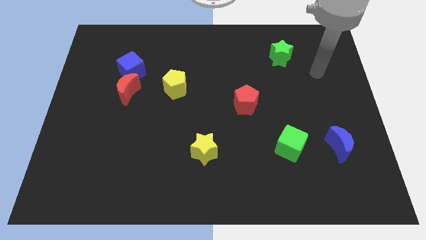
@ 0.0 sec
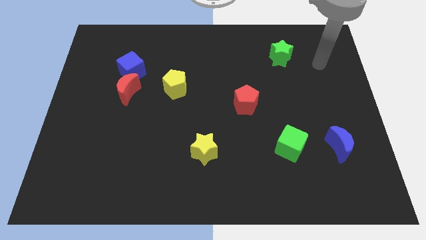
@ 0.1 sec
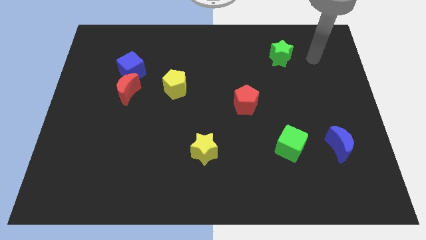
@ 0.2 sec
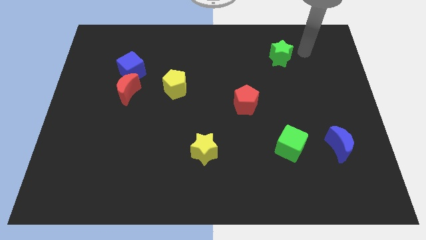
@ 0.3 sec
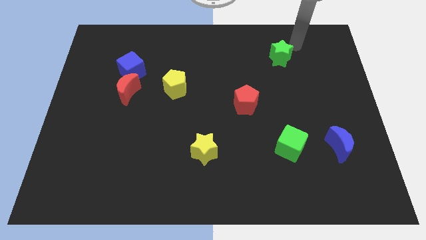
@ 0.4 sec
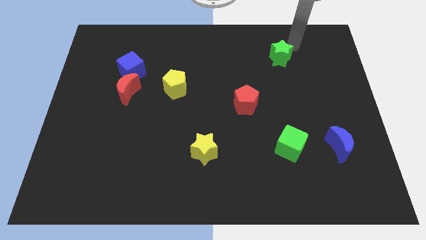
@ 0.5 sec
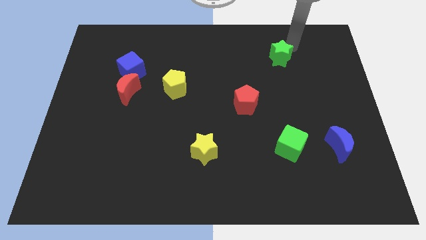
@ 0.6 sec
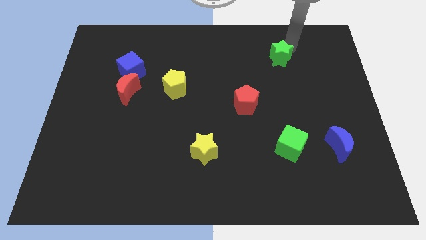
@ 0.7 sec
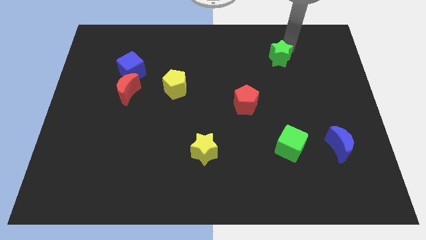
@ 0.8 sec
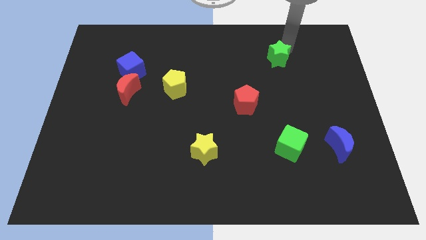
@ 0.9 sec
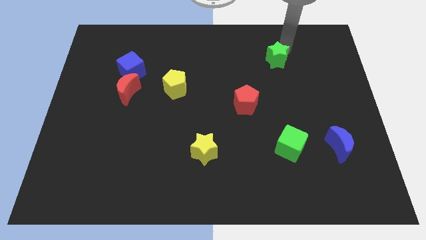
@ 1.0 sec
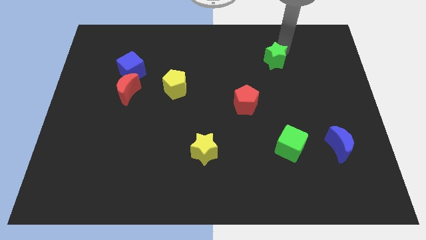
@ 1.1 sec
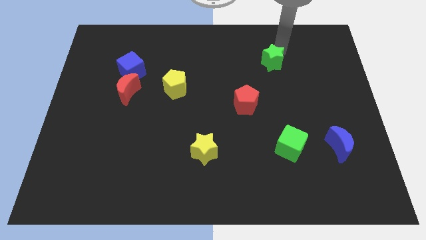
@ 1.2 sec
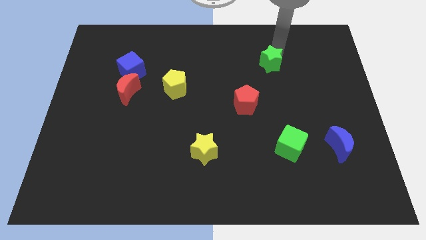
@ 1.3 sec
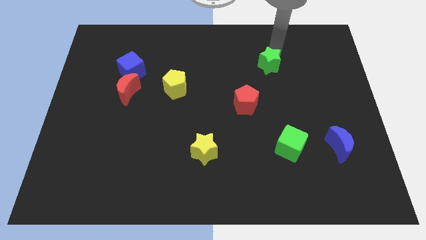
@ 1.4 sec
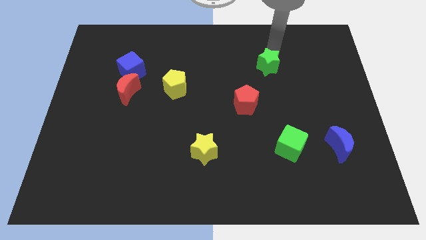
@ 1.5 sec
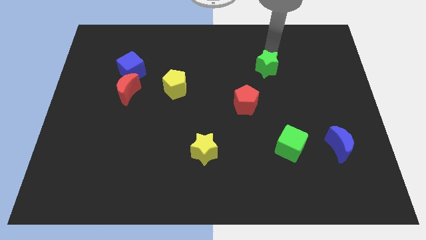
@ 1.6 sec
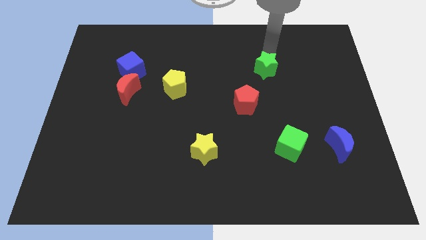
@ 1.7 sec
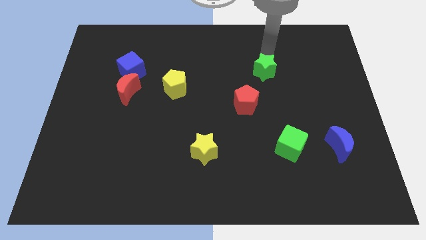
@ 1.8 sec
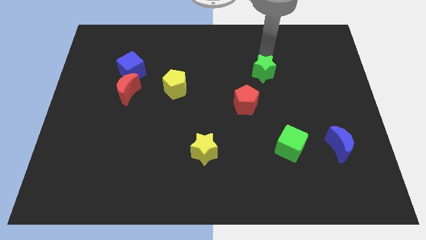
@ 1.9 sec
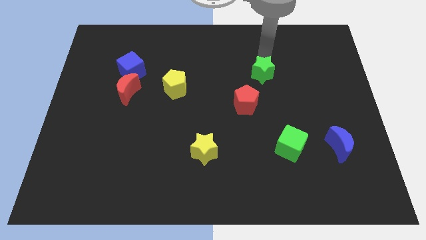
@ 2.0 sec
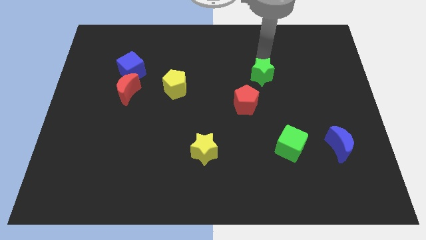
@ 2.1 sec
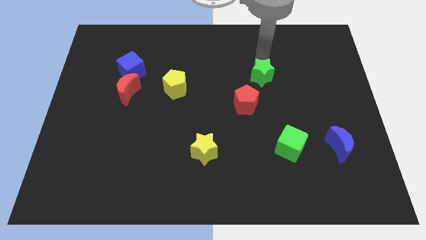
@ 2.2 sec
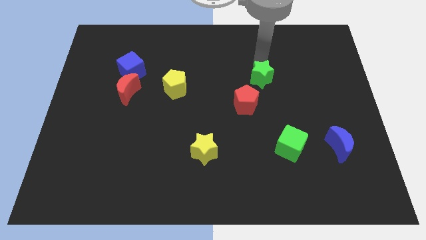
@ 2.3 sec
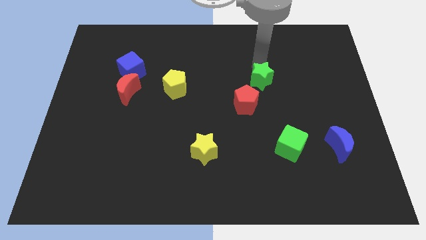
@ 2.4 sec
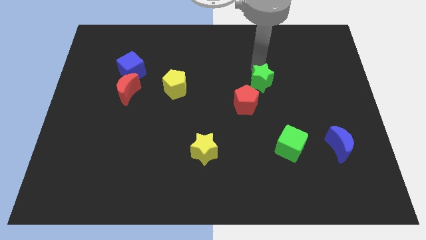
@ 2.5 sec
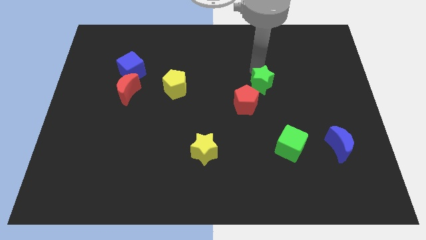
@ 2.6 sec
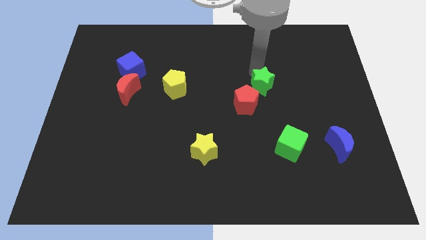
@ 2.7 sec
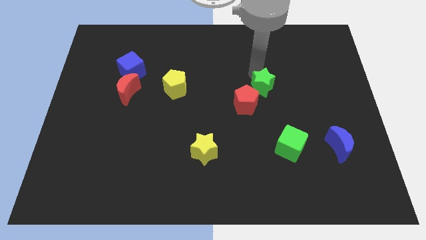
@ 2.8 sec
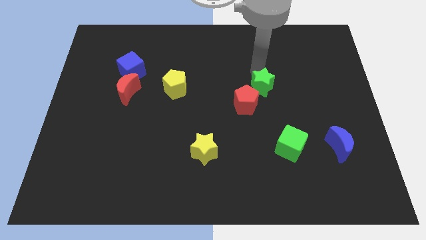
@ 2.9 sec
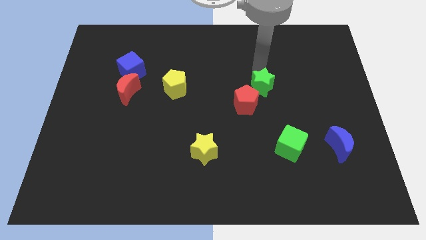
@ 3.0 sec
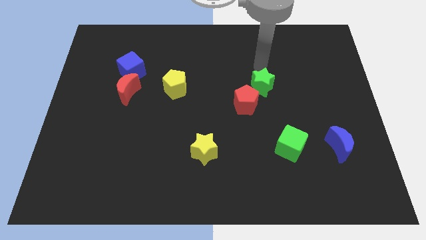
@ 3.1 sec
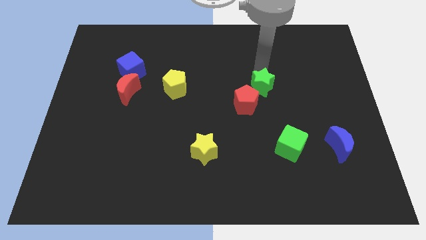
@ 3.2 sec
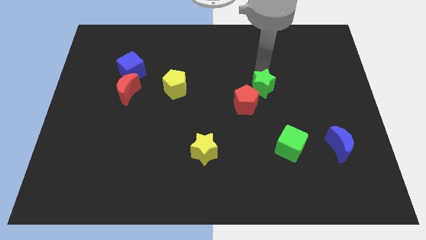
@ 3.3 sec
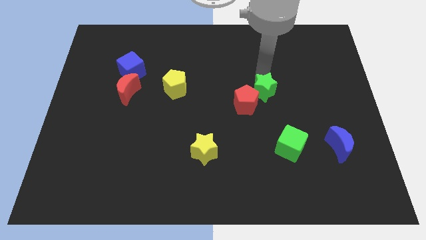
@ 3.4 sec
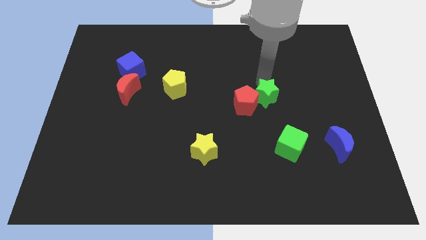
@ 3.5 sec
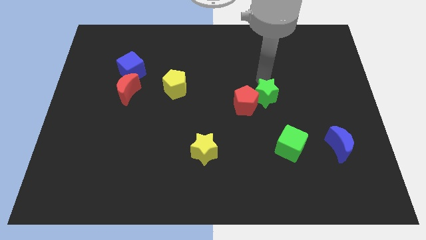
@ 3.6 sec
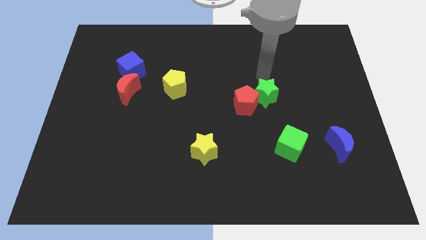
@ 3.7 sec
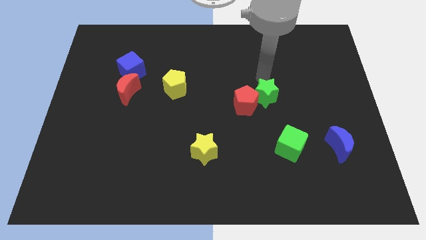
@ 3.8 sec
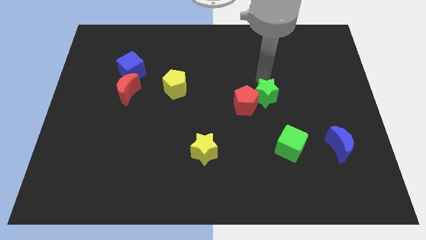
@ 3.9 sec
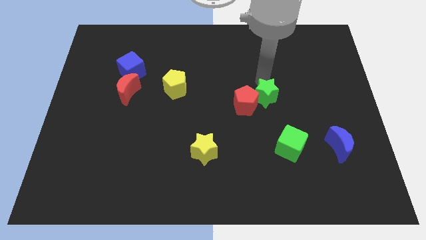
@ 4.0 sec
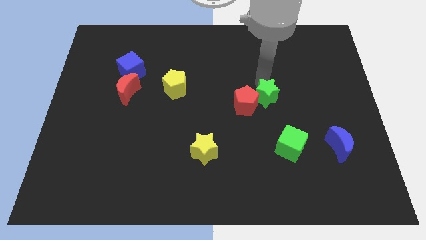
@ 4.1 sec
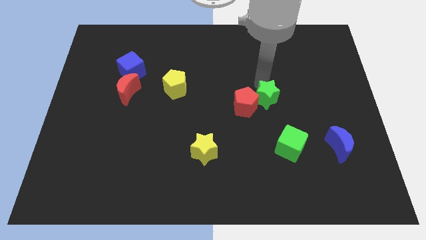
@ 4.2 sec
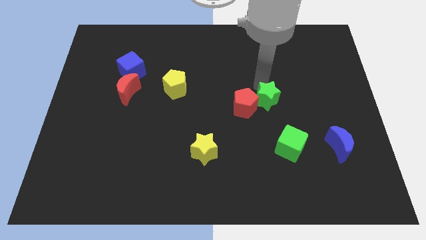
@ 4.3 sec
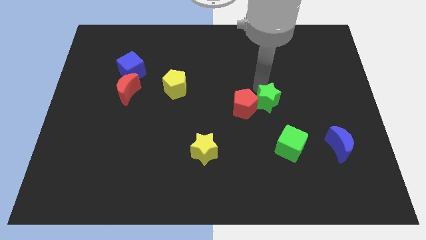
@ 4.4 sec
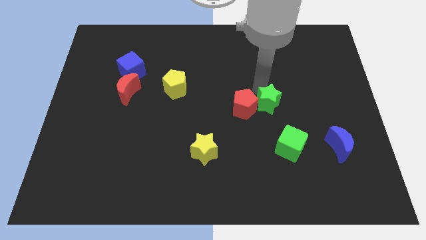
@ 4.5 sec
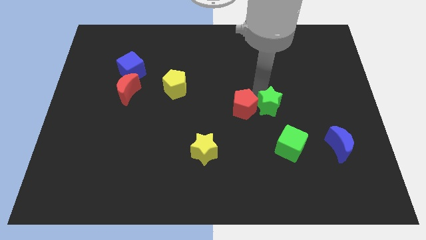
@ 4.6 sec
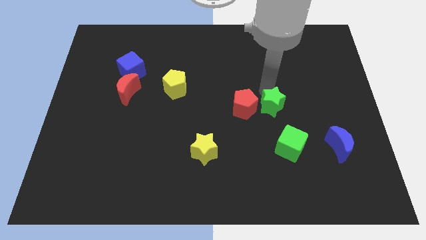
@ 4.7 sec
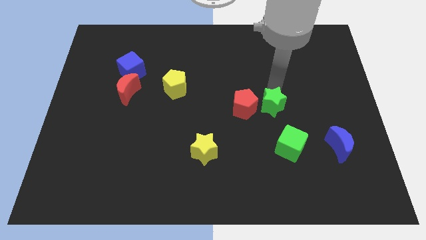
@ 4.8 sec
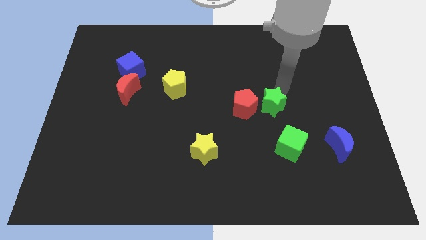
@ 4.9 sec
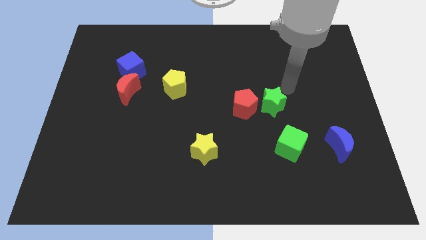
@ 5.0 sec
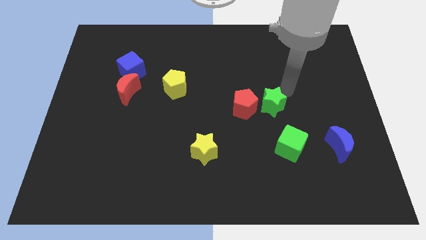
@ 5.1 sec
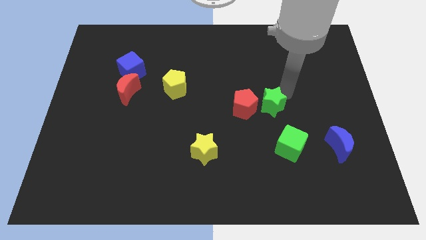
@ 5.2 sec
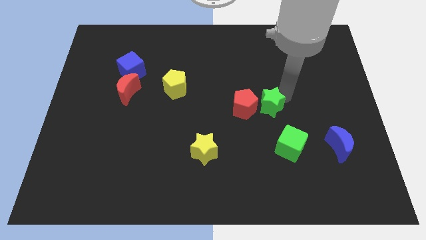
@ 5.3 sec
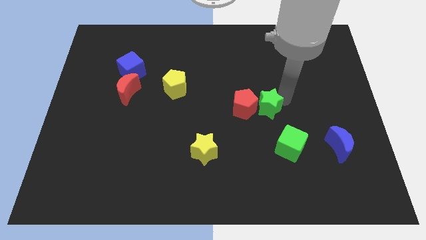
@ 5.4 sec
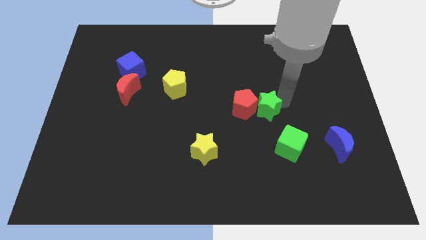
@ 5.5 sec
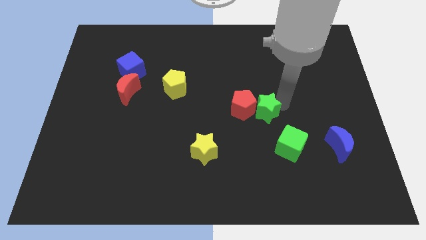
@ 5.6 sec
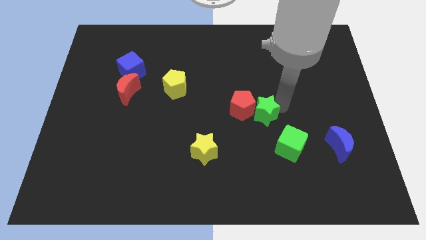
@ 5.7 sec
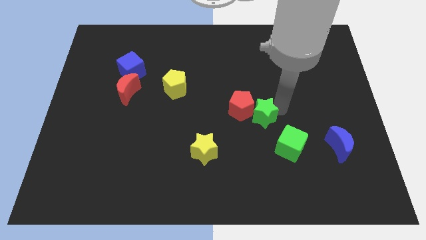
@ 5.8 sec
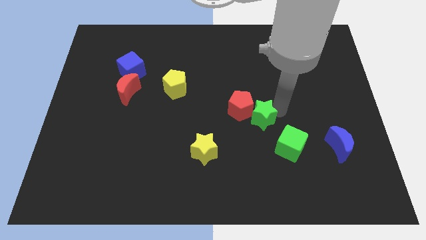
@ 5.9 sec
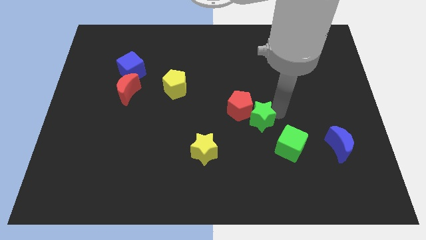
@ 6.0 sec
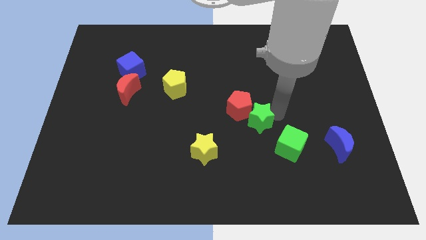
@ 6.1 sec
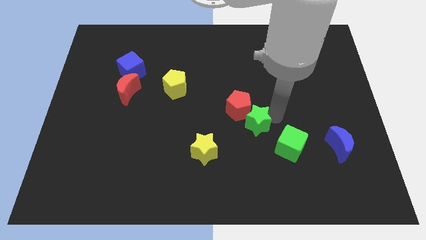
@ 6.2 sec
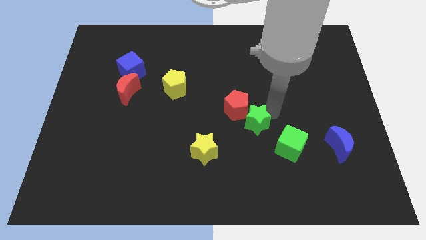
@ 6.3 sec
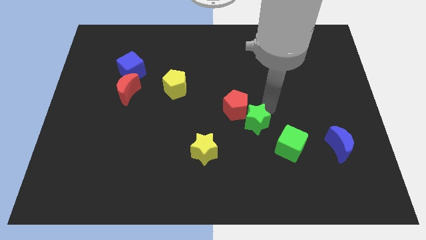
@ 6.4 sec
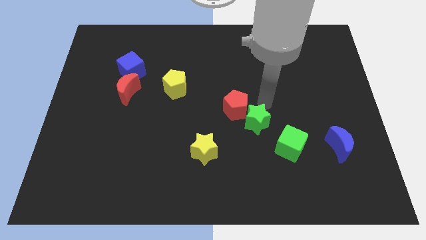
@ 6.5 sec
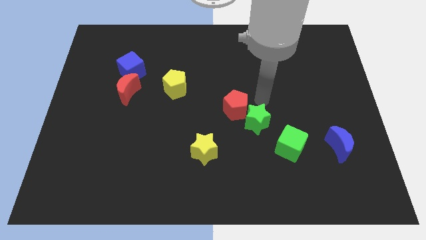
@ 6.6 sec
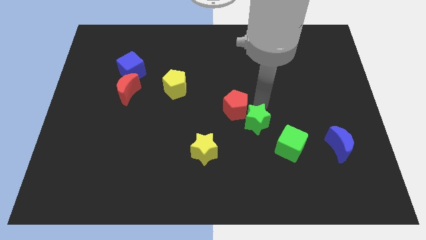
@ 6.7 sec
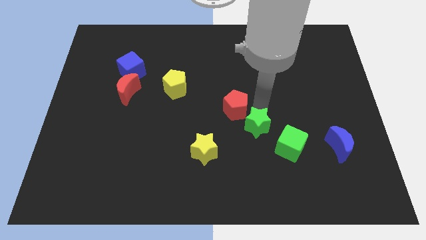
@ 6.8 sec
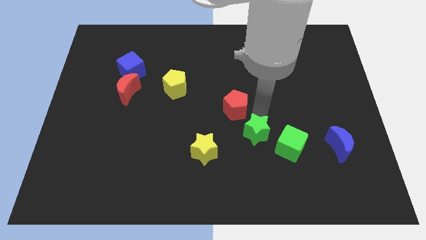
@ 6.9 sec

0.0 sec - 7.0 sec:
move the green star to the right side of the yellow star
